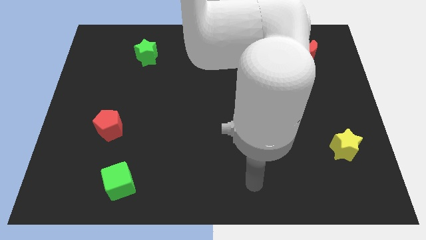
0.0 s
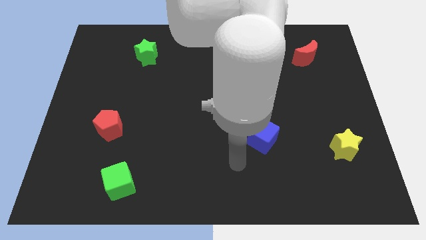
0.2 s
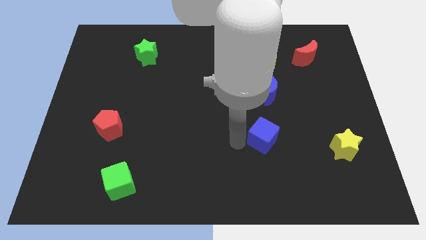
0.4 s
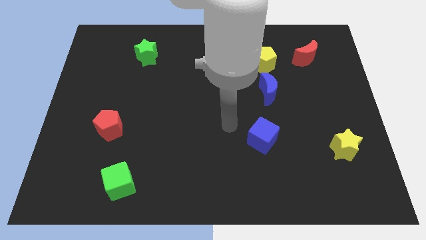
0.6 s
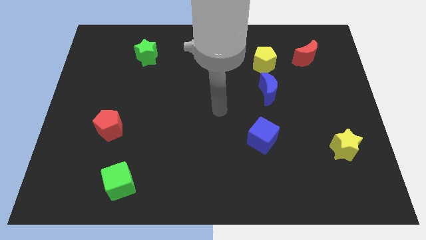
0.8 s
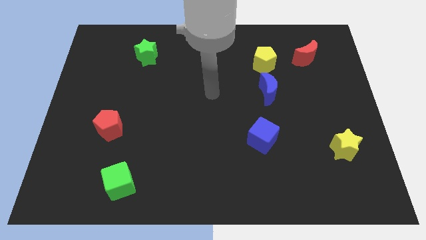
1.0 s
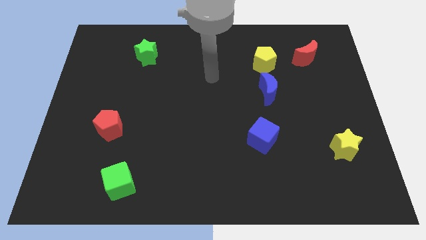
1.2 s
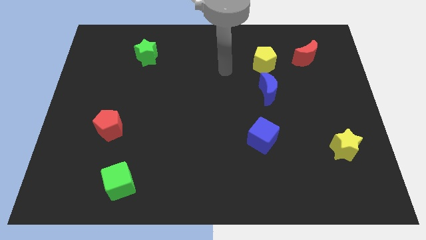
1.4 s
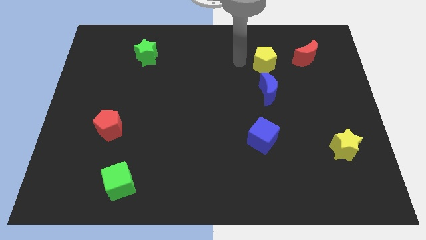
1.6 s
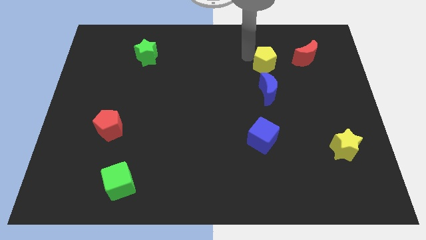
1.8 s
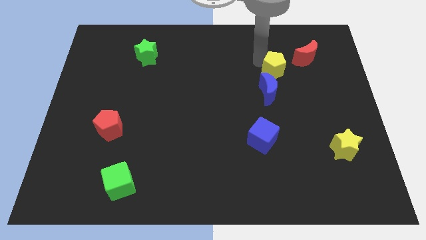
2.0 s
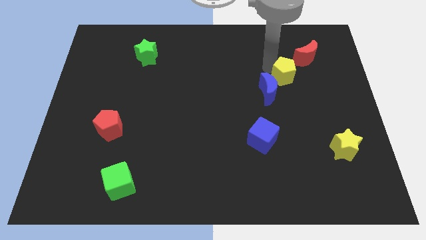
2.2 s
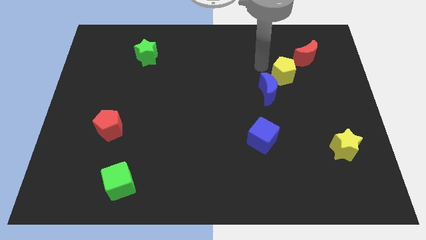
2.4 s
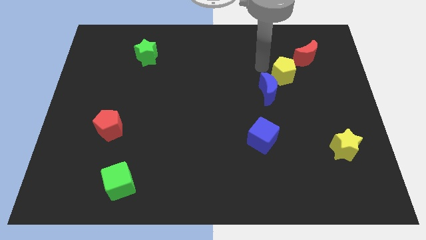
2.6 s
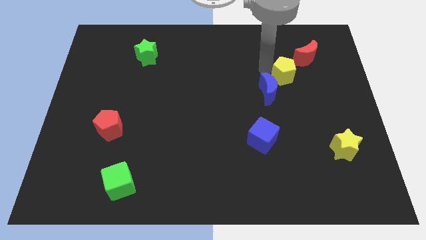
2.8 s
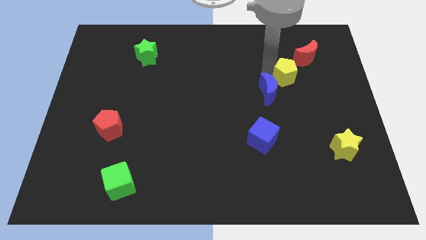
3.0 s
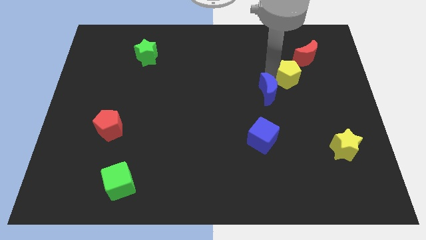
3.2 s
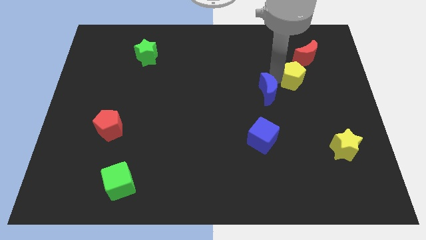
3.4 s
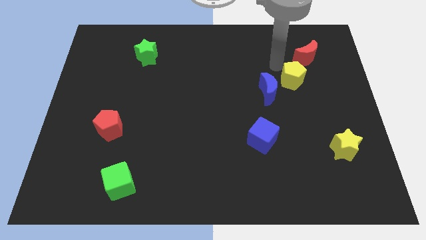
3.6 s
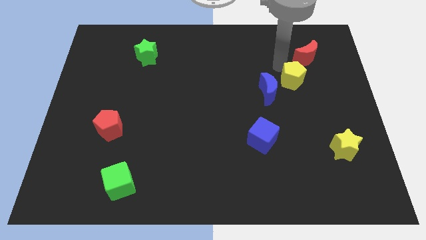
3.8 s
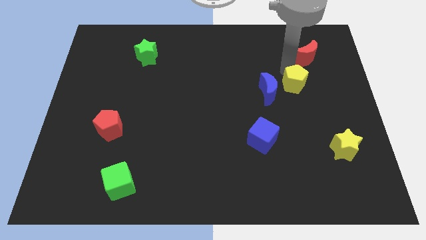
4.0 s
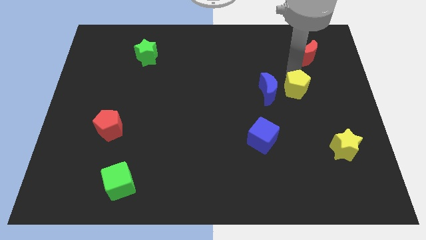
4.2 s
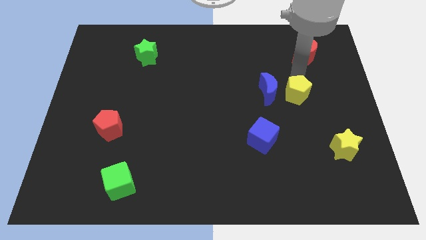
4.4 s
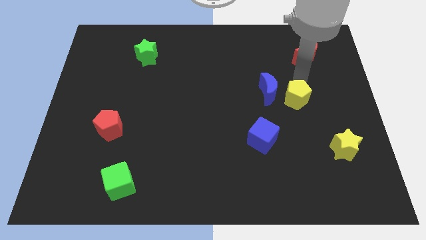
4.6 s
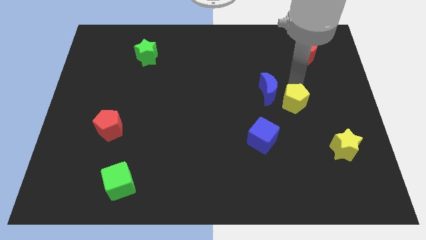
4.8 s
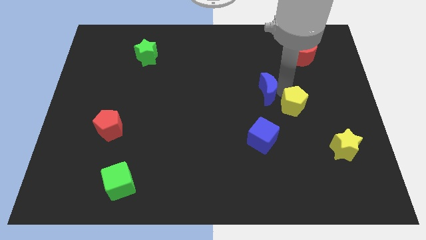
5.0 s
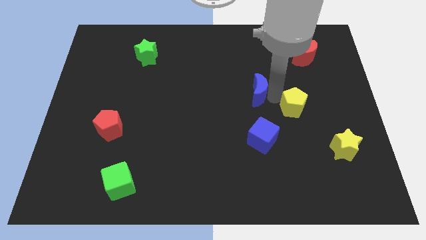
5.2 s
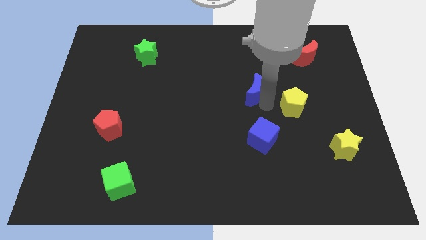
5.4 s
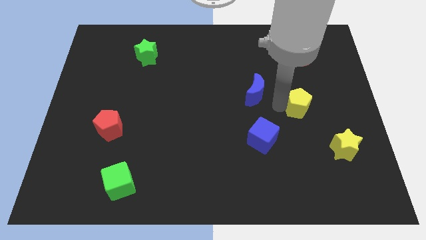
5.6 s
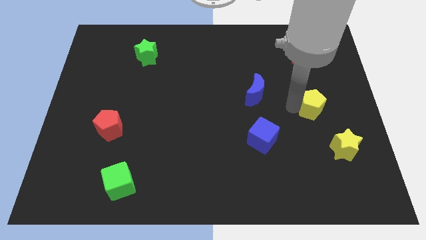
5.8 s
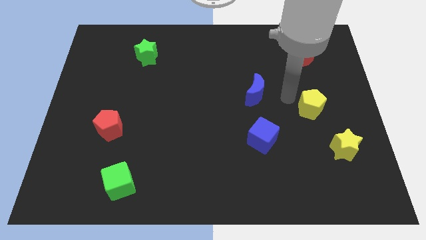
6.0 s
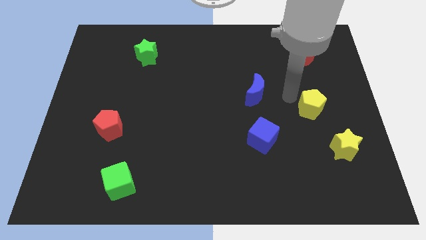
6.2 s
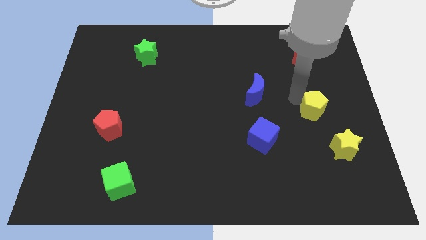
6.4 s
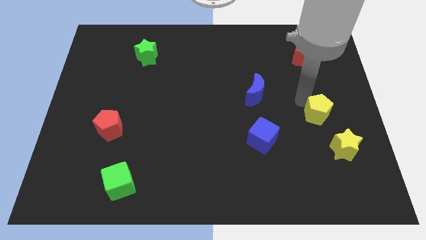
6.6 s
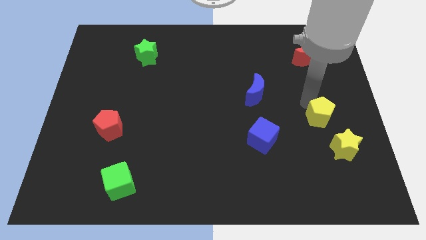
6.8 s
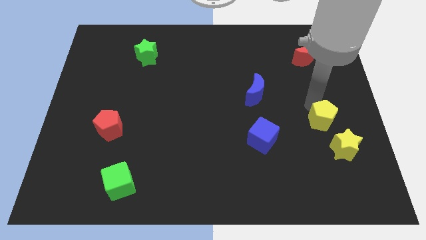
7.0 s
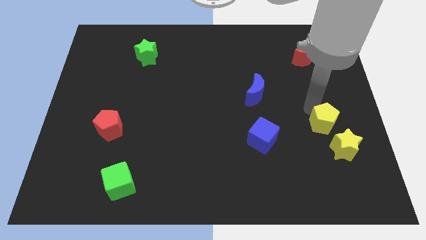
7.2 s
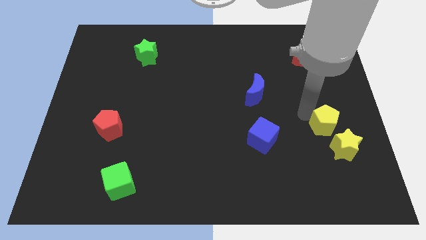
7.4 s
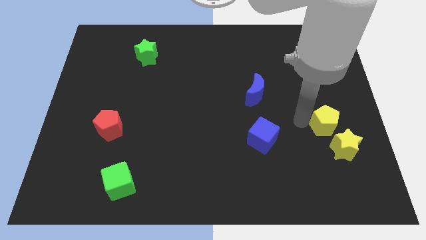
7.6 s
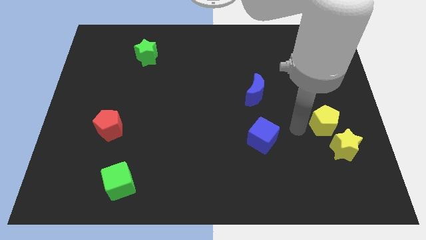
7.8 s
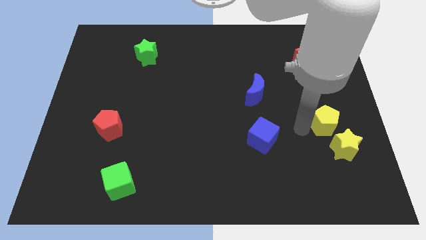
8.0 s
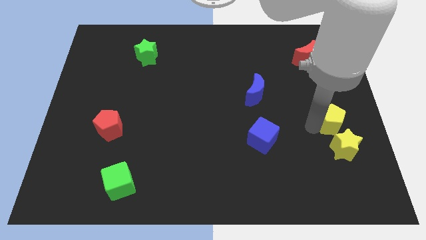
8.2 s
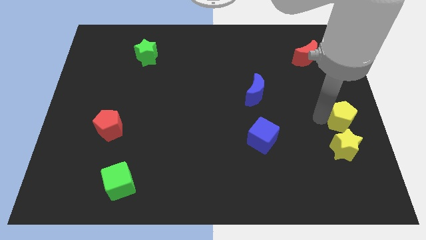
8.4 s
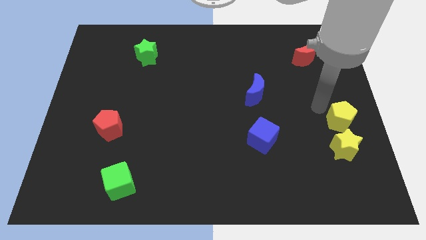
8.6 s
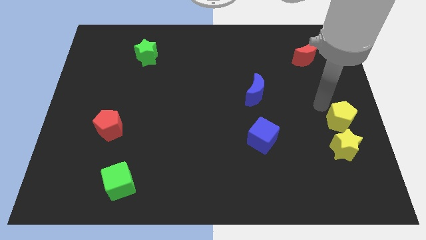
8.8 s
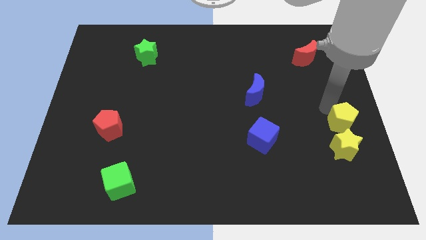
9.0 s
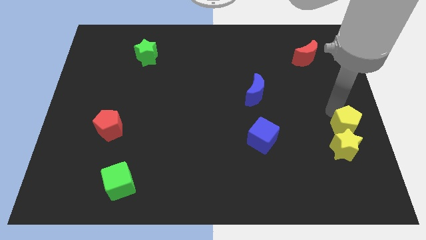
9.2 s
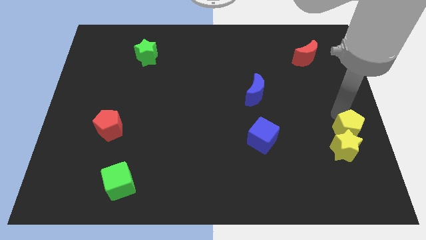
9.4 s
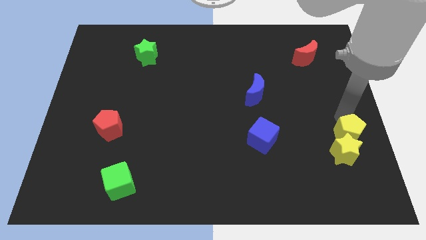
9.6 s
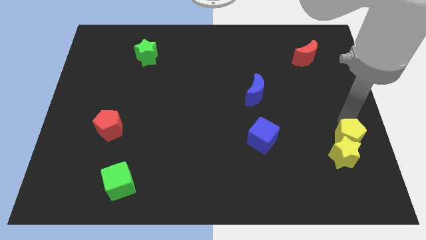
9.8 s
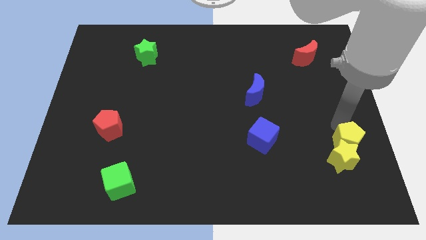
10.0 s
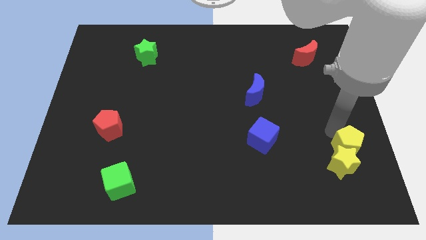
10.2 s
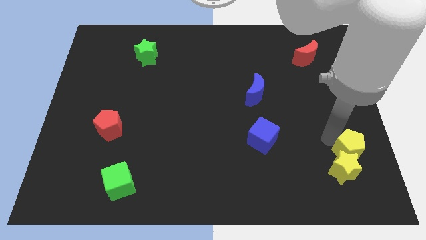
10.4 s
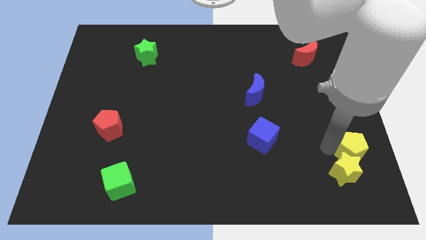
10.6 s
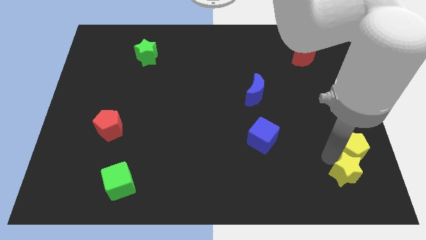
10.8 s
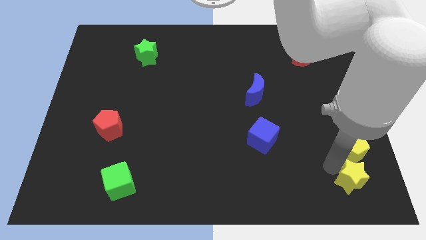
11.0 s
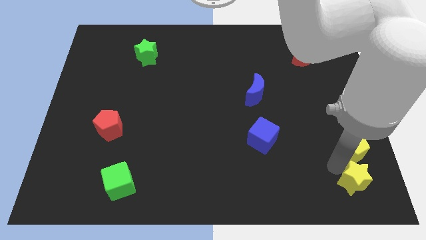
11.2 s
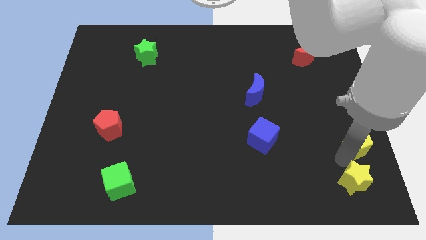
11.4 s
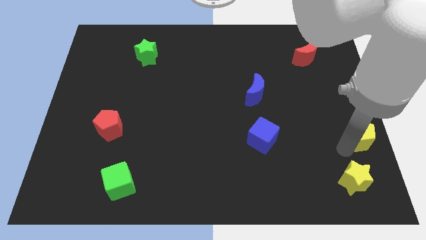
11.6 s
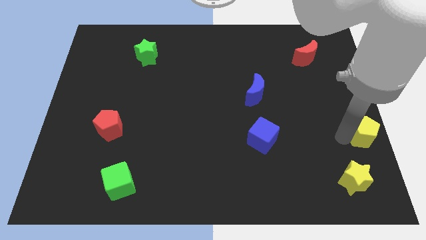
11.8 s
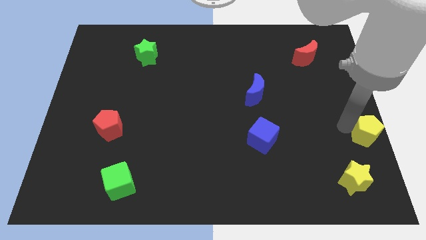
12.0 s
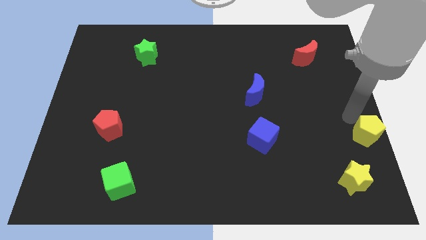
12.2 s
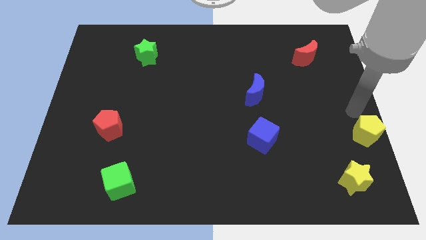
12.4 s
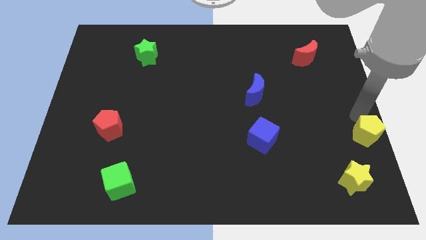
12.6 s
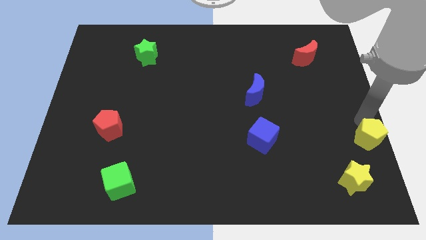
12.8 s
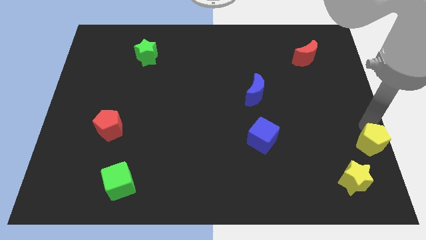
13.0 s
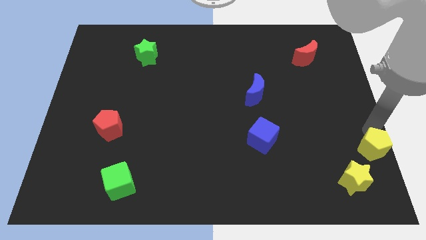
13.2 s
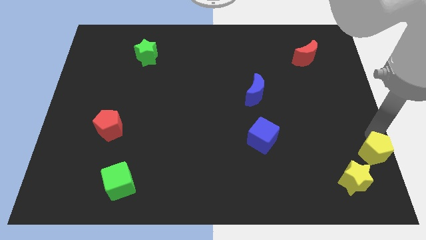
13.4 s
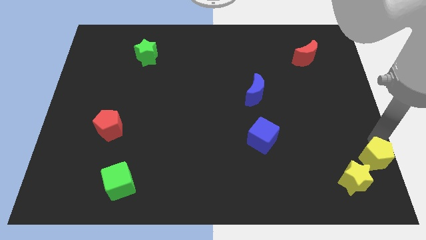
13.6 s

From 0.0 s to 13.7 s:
push the yellow pentagon to the bottom right corner

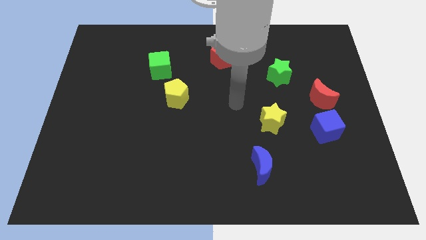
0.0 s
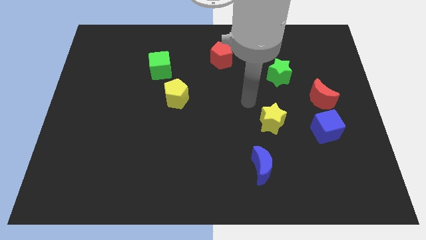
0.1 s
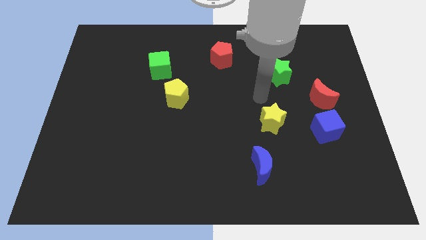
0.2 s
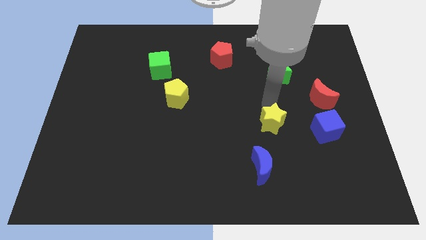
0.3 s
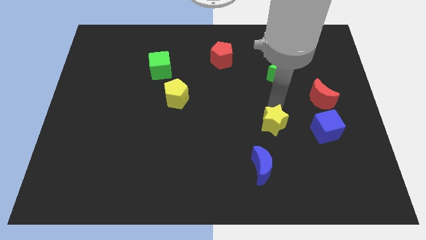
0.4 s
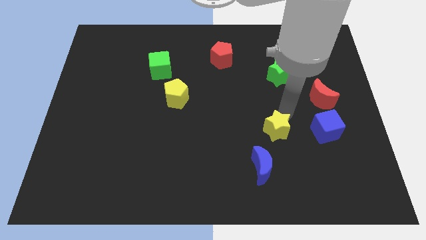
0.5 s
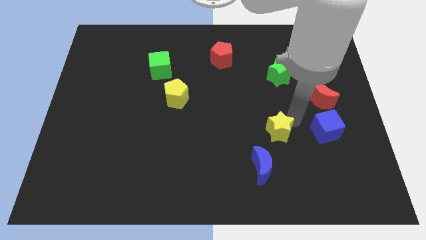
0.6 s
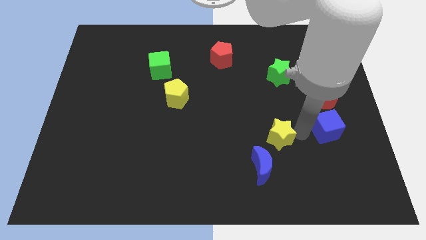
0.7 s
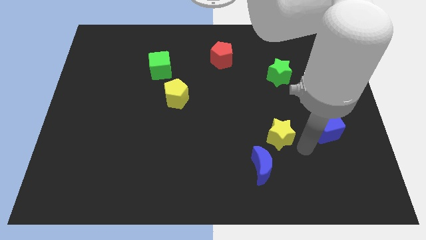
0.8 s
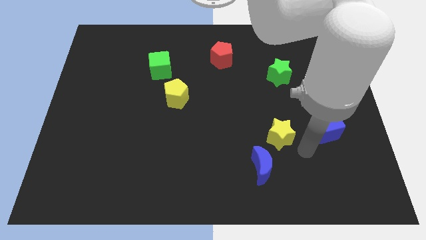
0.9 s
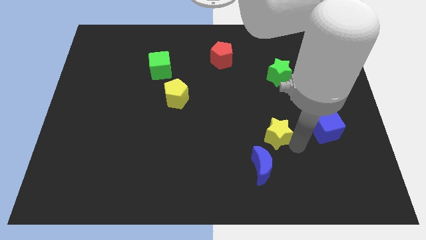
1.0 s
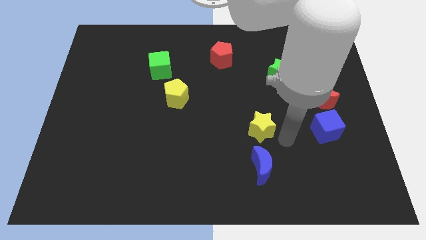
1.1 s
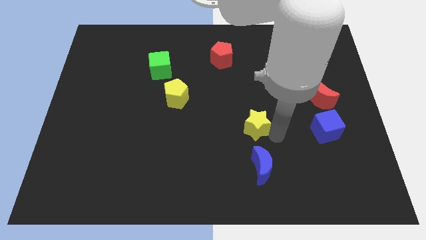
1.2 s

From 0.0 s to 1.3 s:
push the yellow star to the middle of the board
